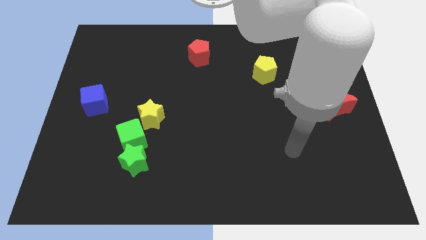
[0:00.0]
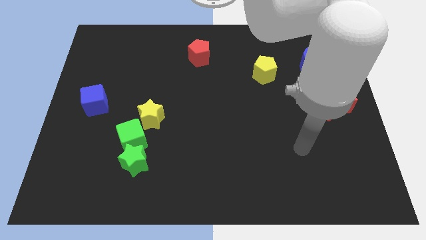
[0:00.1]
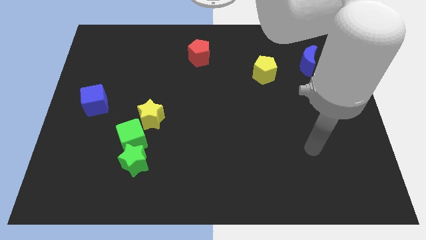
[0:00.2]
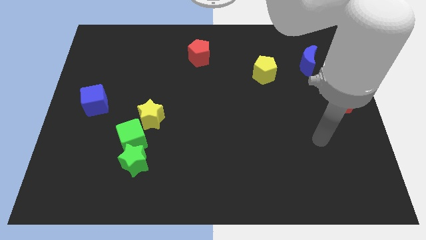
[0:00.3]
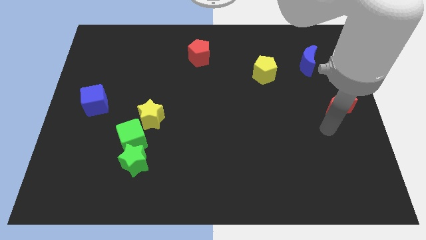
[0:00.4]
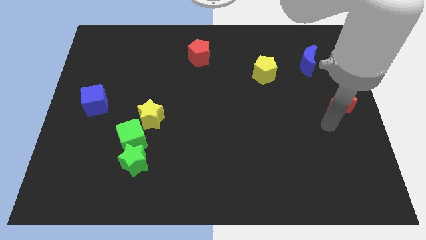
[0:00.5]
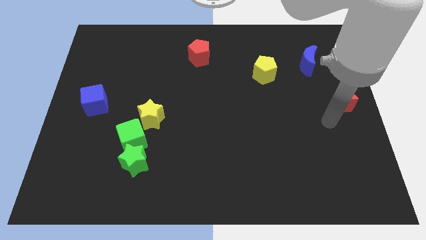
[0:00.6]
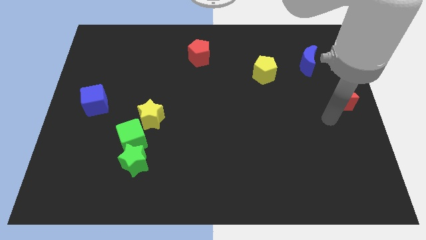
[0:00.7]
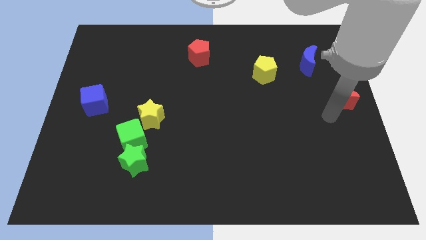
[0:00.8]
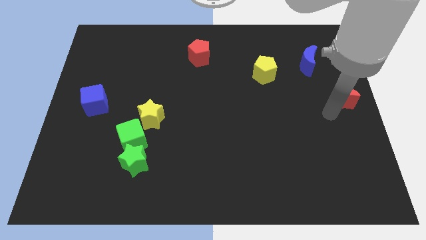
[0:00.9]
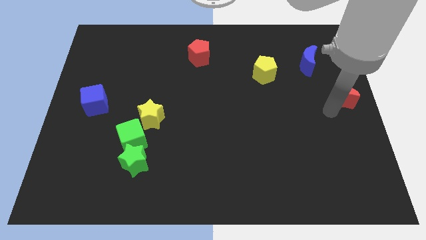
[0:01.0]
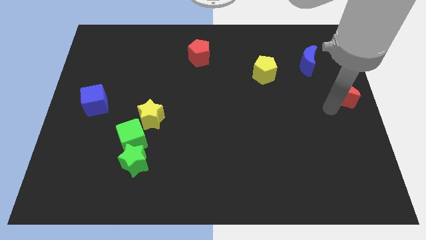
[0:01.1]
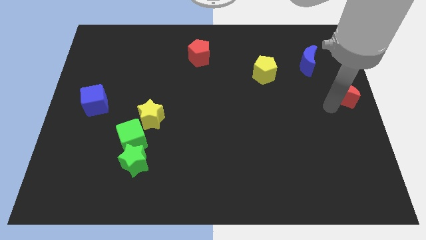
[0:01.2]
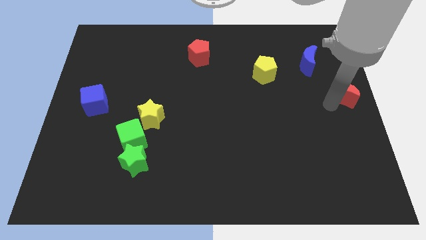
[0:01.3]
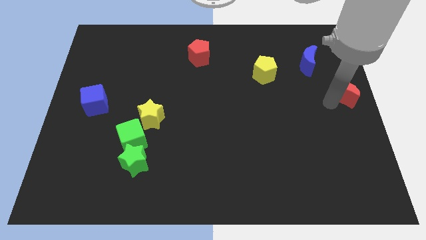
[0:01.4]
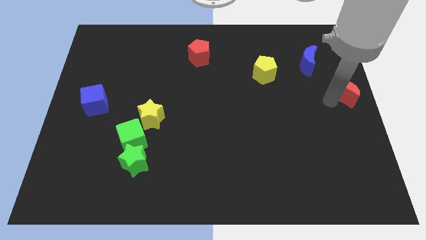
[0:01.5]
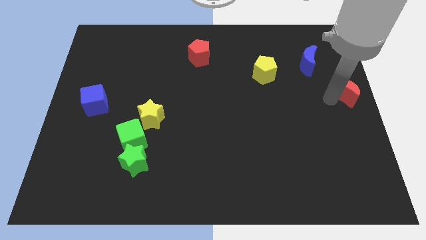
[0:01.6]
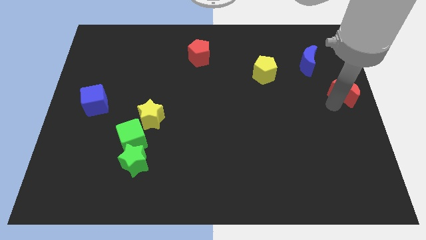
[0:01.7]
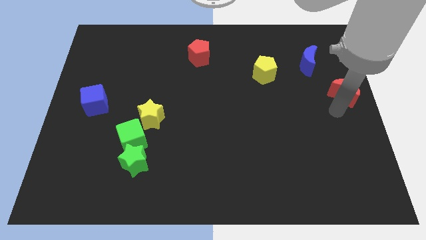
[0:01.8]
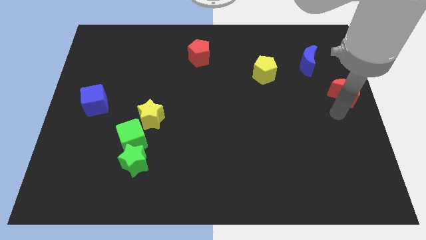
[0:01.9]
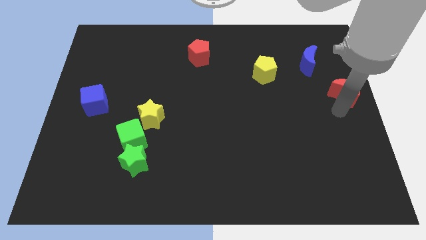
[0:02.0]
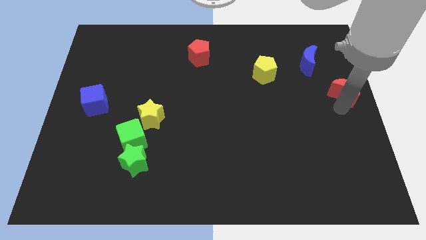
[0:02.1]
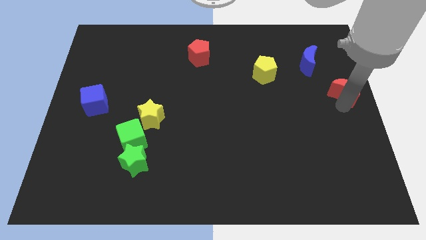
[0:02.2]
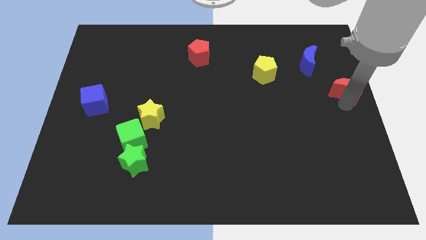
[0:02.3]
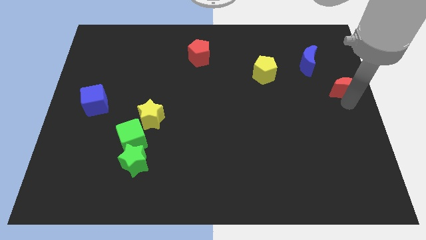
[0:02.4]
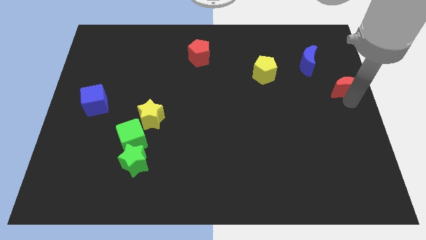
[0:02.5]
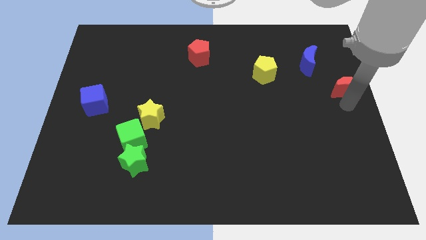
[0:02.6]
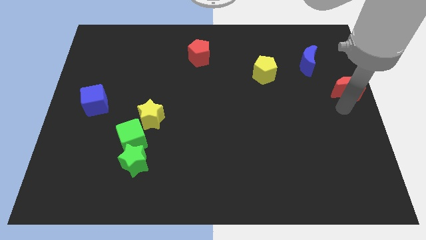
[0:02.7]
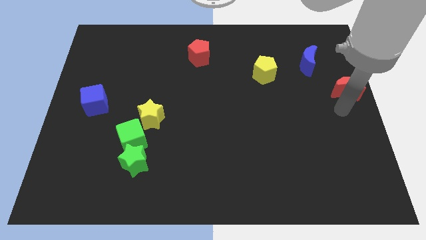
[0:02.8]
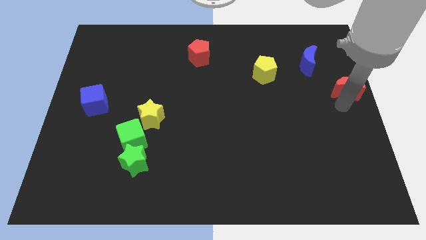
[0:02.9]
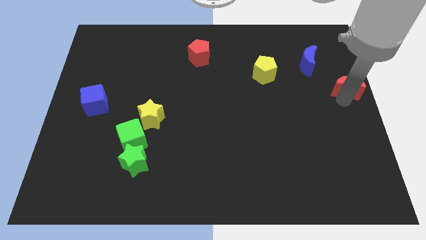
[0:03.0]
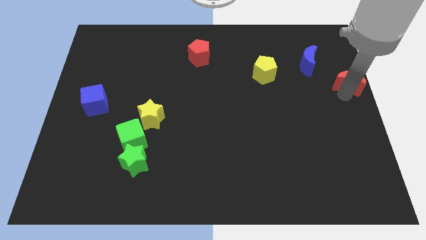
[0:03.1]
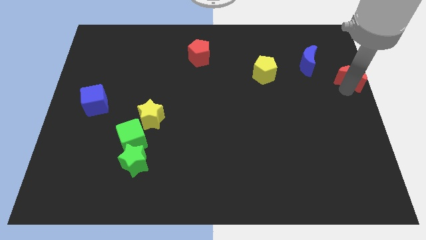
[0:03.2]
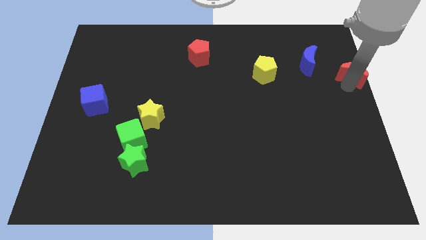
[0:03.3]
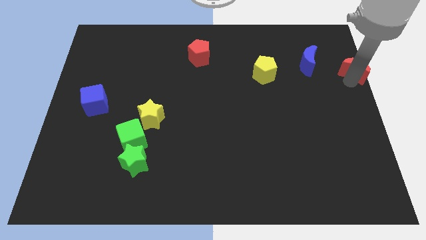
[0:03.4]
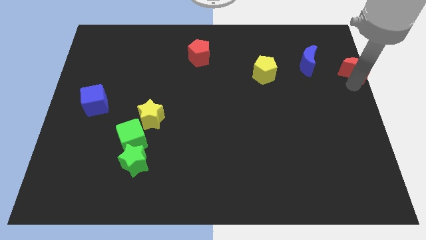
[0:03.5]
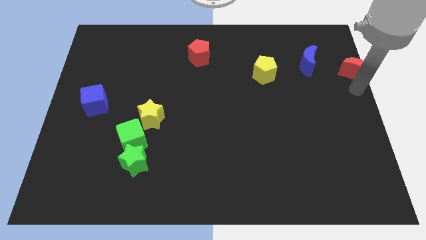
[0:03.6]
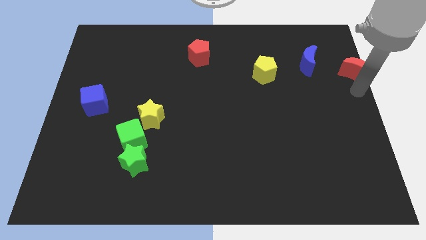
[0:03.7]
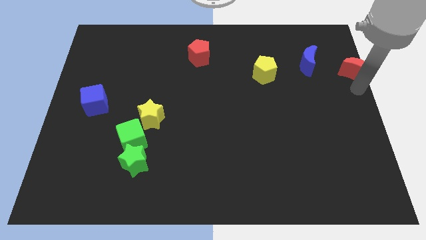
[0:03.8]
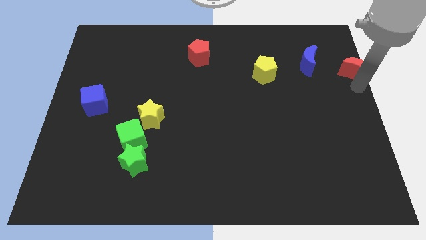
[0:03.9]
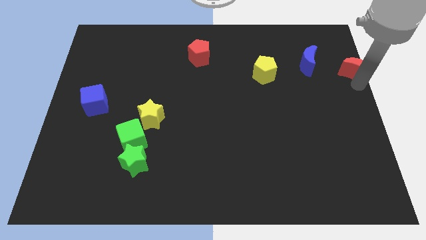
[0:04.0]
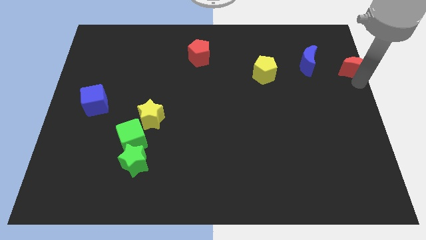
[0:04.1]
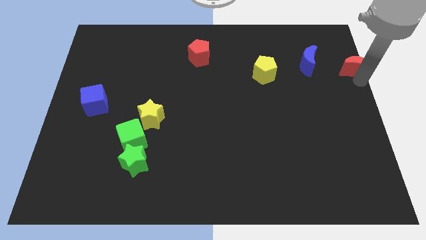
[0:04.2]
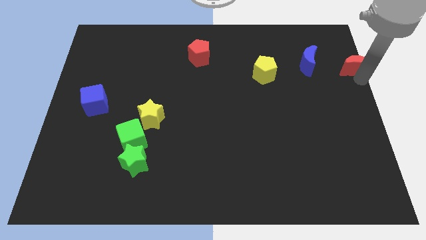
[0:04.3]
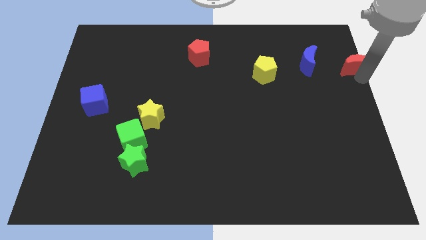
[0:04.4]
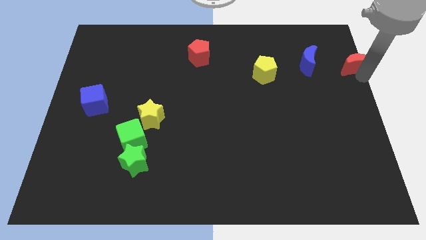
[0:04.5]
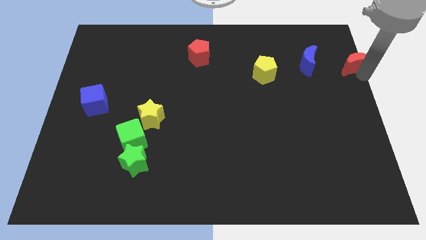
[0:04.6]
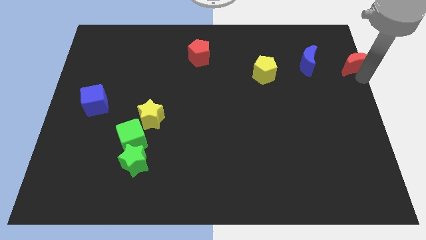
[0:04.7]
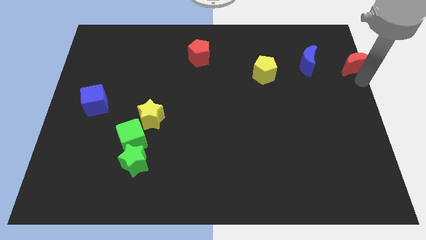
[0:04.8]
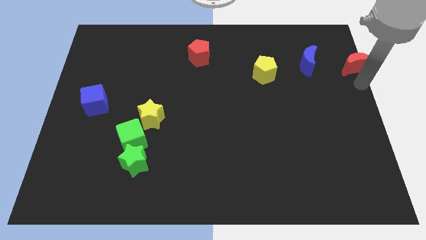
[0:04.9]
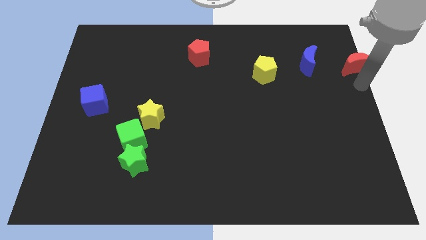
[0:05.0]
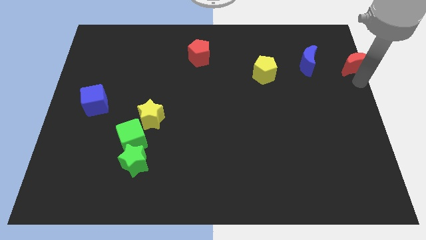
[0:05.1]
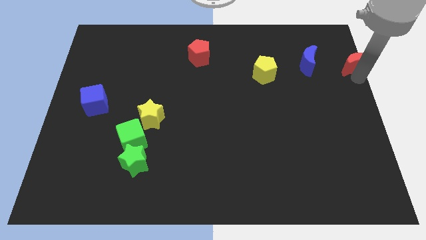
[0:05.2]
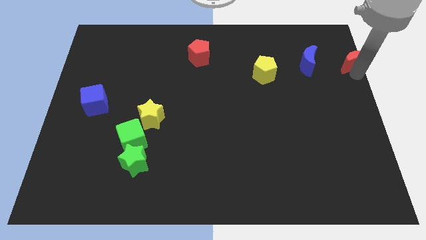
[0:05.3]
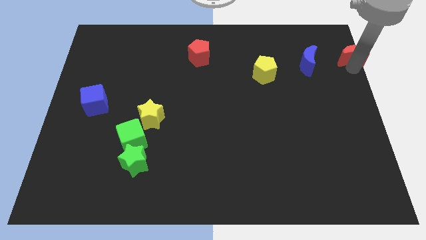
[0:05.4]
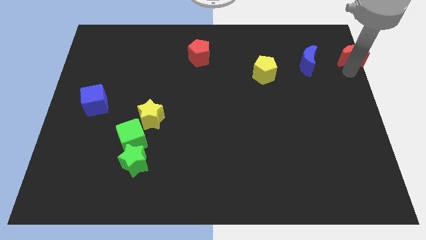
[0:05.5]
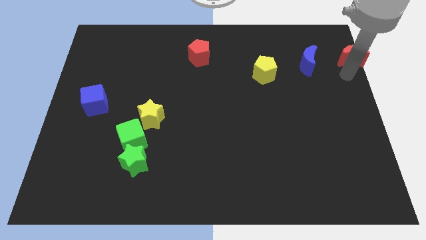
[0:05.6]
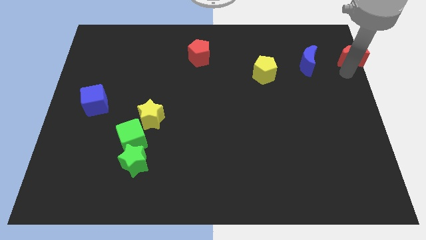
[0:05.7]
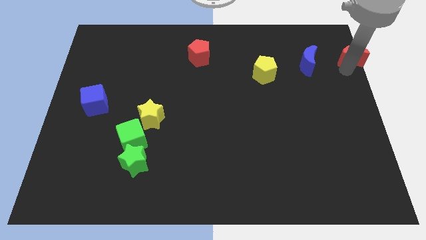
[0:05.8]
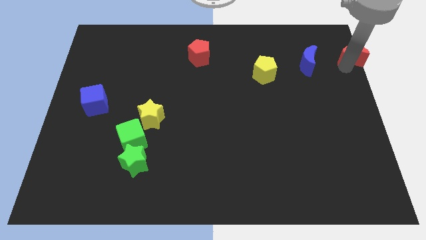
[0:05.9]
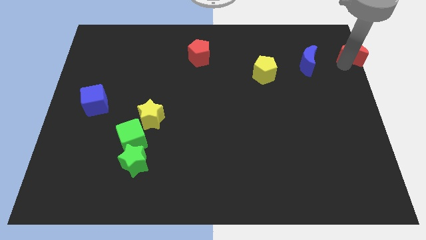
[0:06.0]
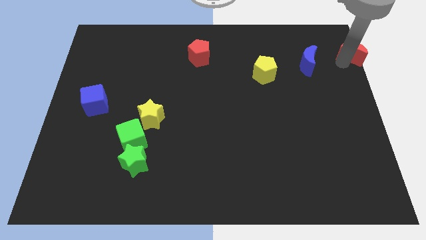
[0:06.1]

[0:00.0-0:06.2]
put the red moon to the top right of the board
